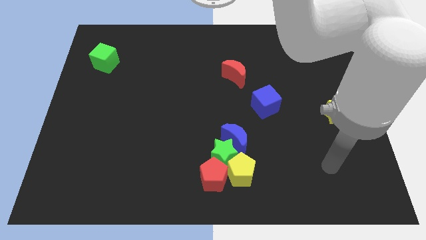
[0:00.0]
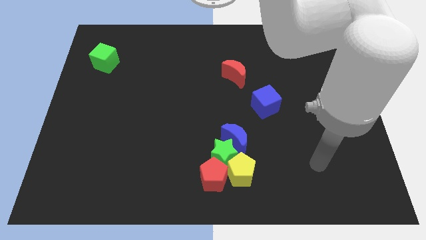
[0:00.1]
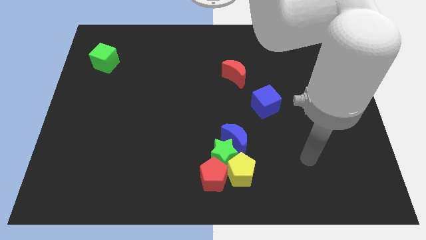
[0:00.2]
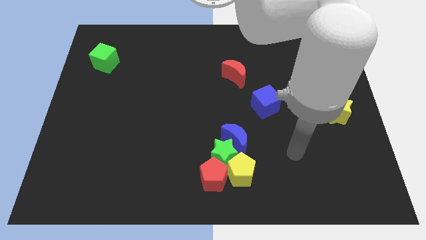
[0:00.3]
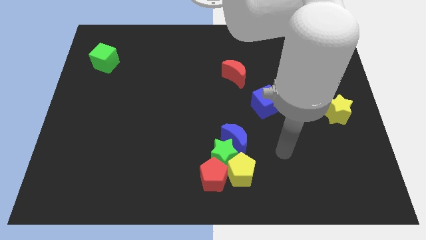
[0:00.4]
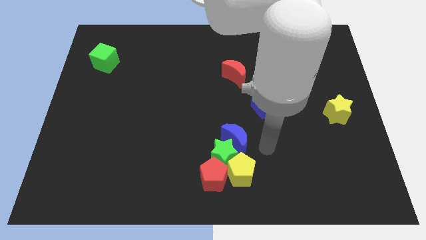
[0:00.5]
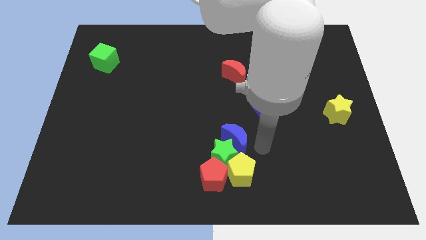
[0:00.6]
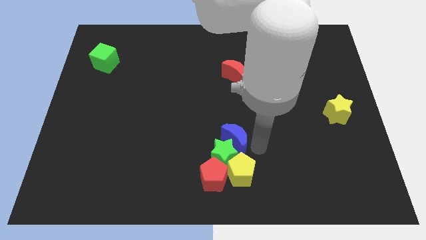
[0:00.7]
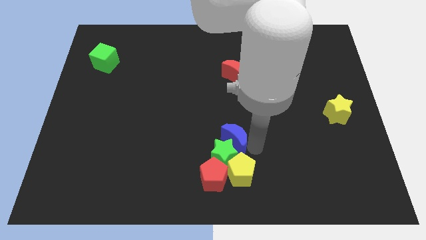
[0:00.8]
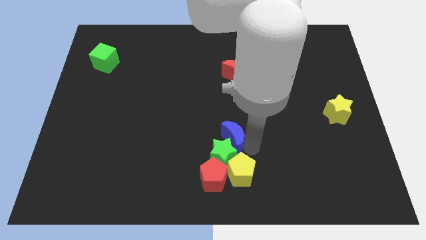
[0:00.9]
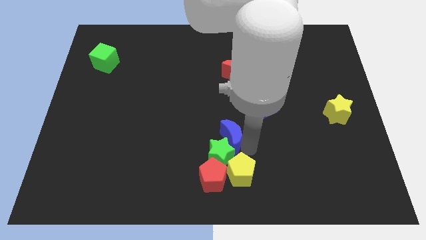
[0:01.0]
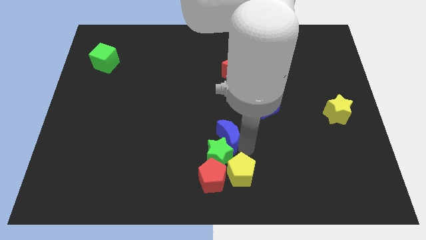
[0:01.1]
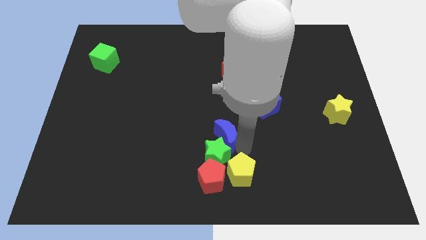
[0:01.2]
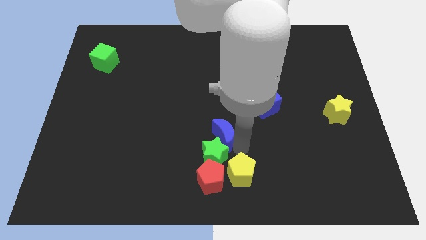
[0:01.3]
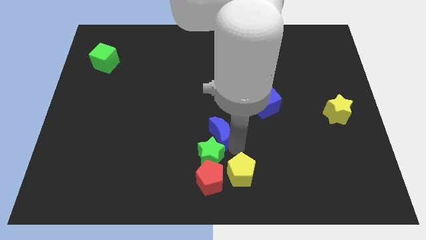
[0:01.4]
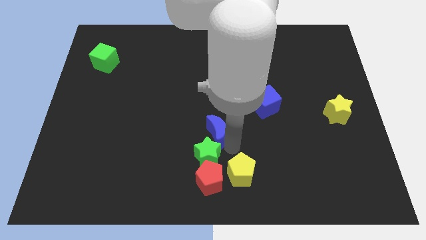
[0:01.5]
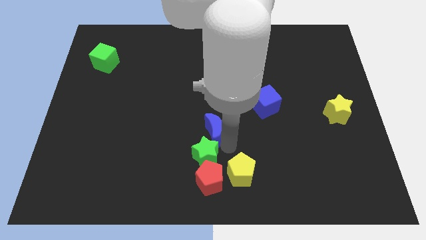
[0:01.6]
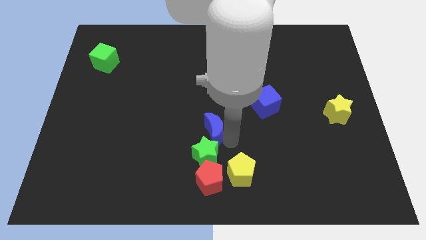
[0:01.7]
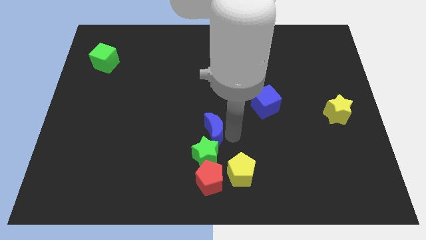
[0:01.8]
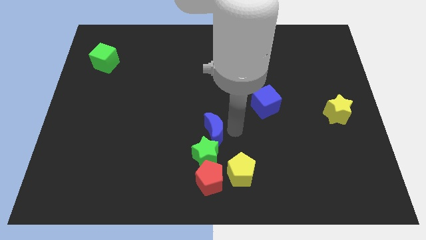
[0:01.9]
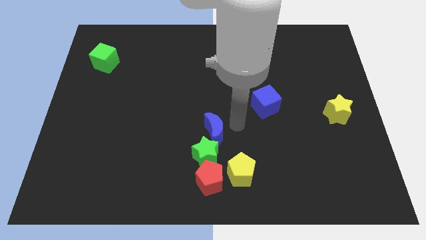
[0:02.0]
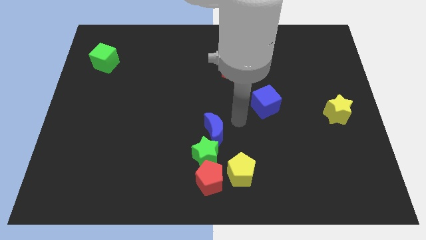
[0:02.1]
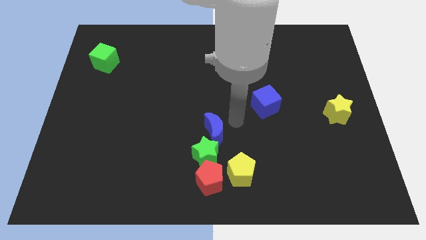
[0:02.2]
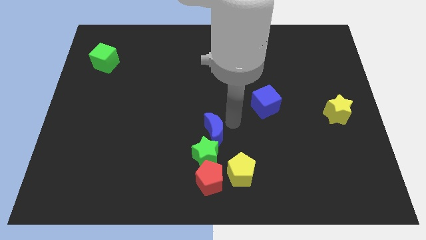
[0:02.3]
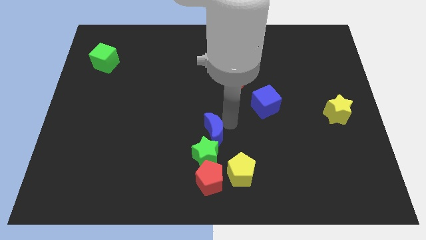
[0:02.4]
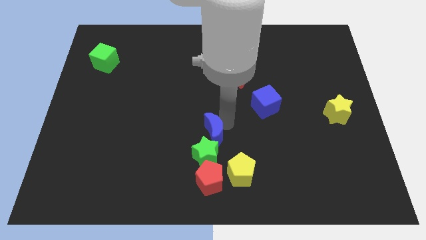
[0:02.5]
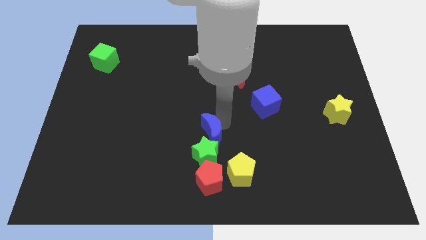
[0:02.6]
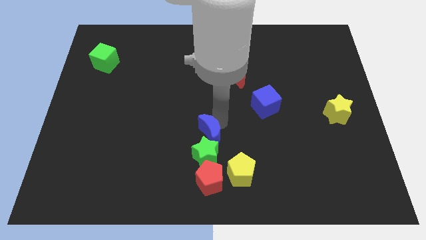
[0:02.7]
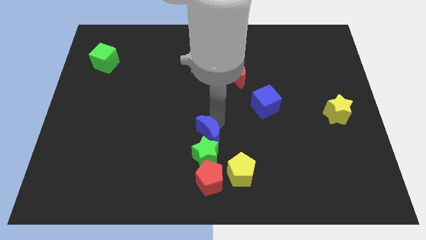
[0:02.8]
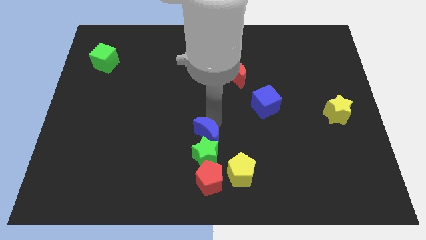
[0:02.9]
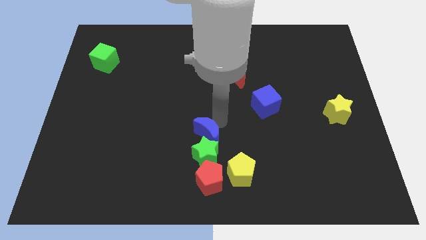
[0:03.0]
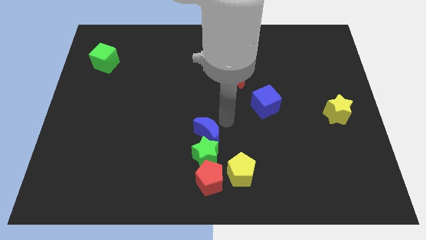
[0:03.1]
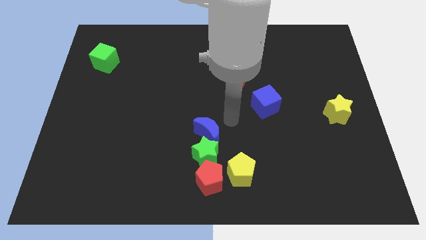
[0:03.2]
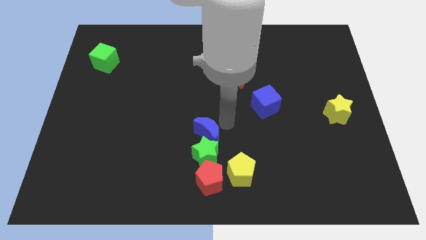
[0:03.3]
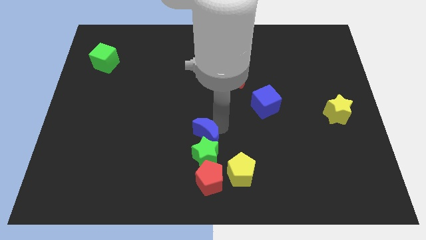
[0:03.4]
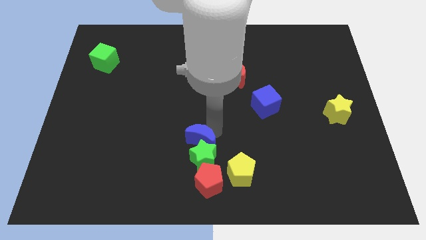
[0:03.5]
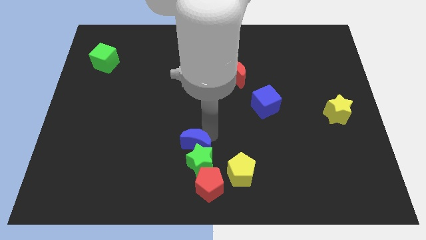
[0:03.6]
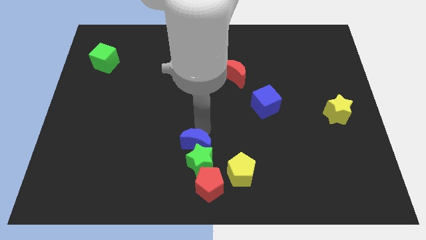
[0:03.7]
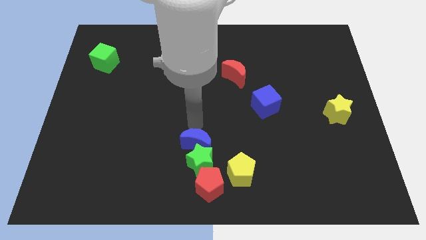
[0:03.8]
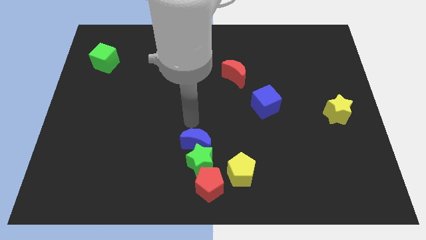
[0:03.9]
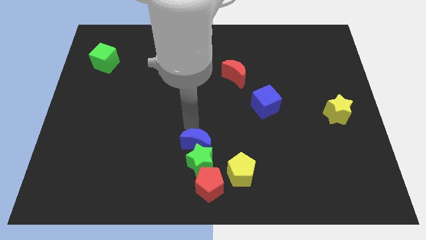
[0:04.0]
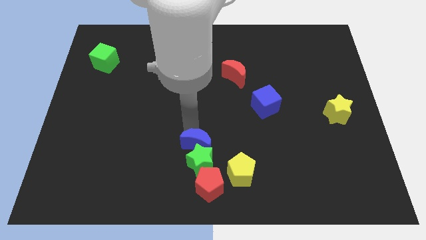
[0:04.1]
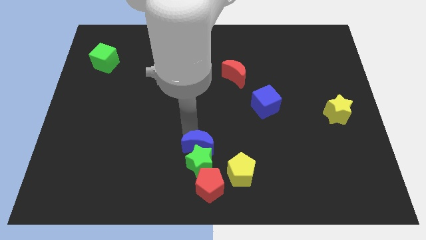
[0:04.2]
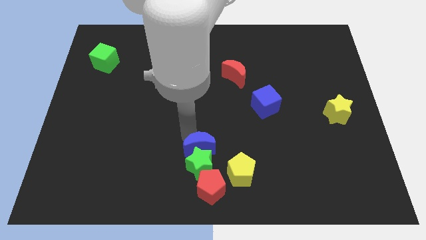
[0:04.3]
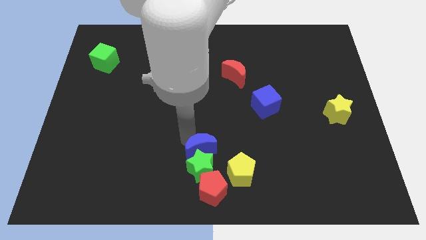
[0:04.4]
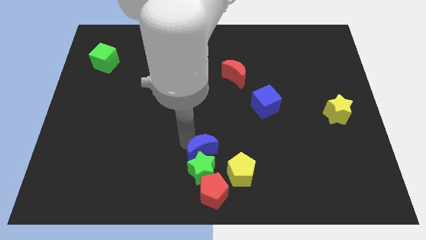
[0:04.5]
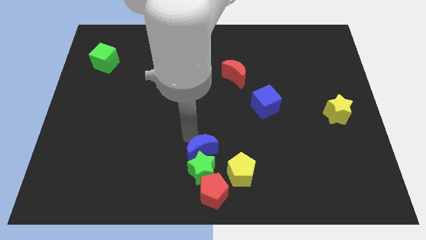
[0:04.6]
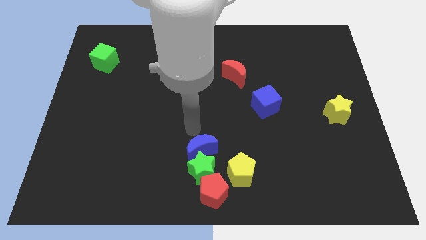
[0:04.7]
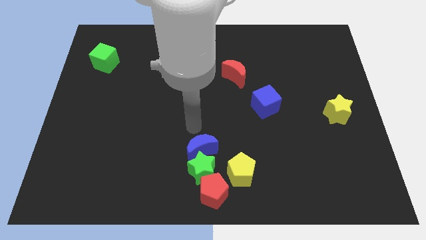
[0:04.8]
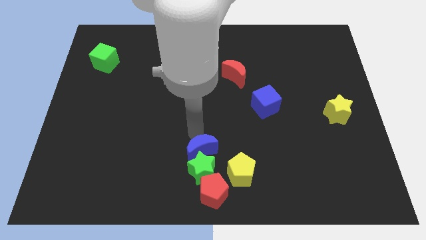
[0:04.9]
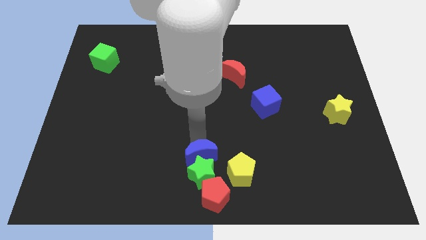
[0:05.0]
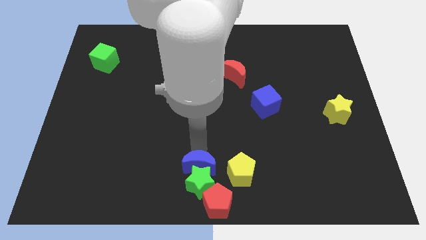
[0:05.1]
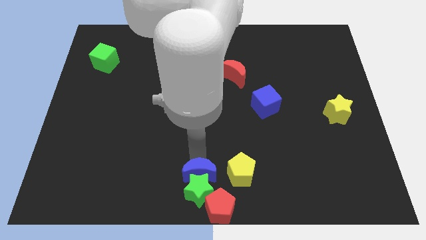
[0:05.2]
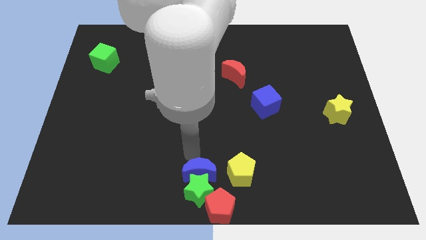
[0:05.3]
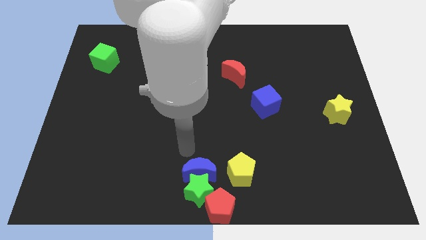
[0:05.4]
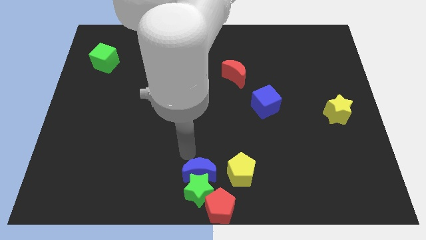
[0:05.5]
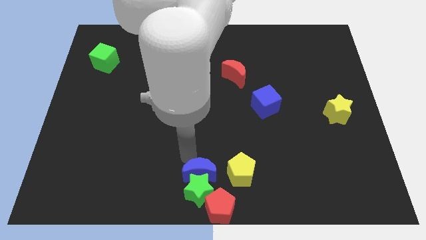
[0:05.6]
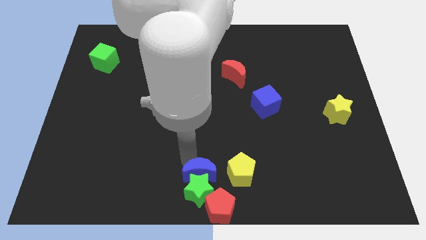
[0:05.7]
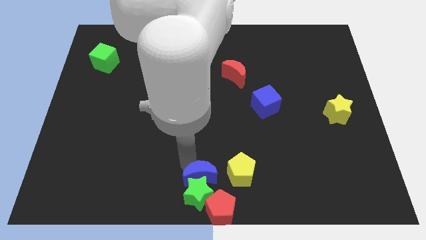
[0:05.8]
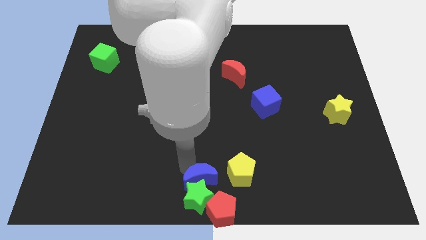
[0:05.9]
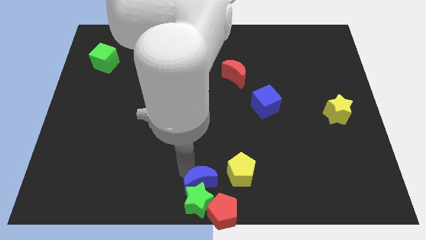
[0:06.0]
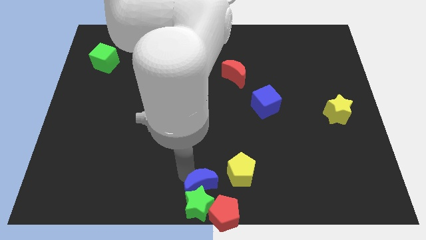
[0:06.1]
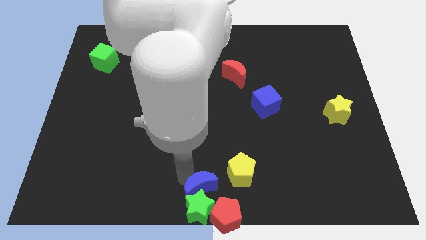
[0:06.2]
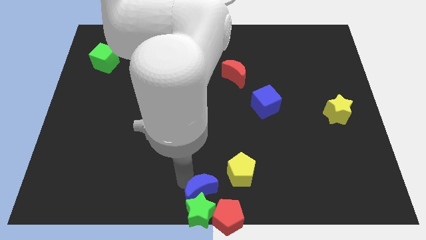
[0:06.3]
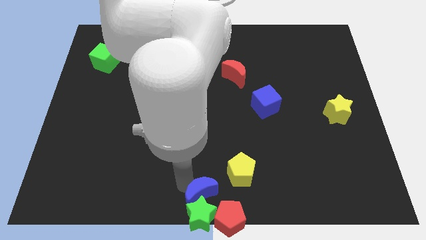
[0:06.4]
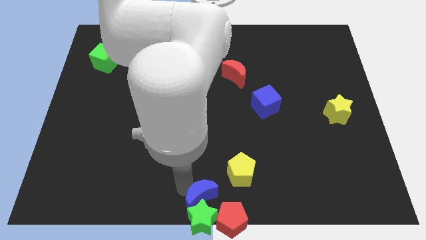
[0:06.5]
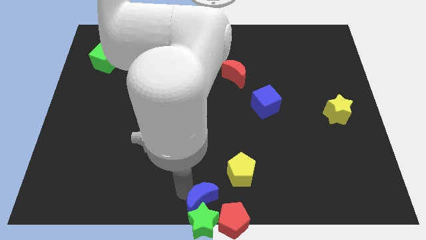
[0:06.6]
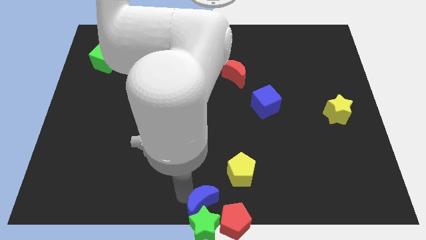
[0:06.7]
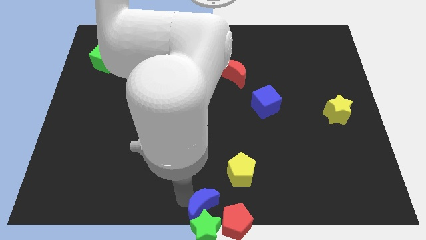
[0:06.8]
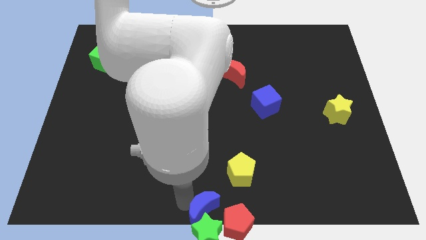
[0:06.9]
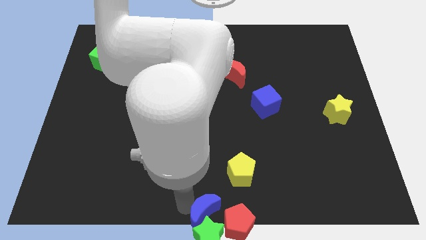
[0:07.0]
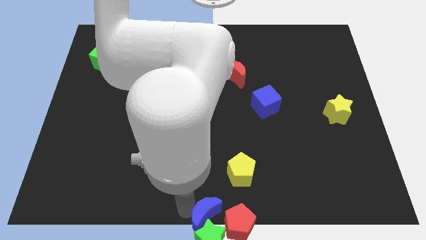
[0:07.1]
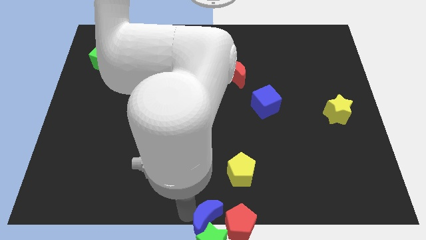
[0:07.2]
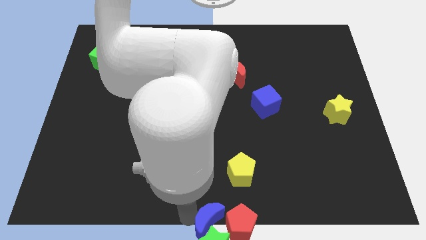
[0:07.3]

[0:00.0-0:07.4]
push the blue moon next to the red pentagon

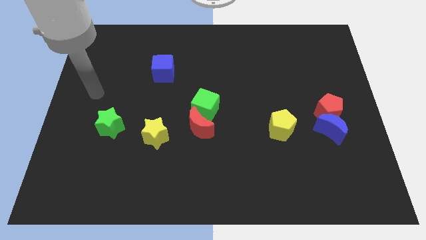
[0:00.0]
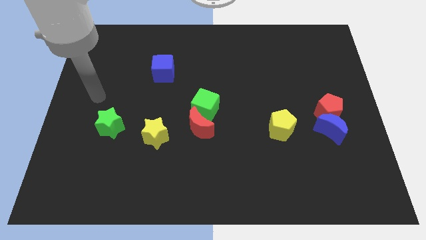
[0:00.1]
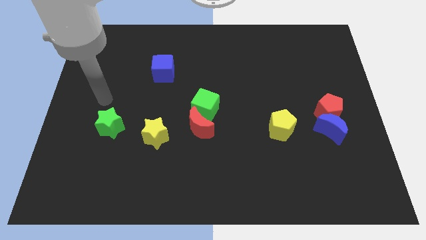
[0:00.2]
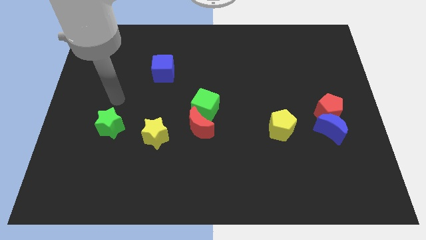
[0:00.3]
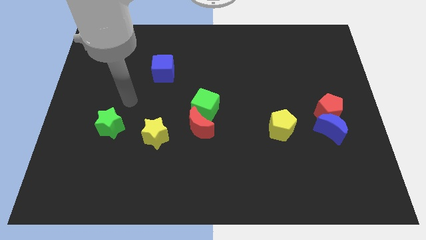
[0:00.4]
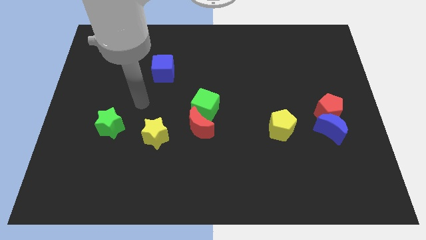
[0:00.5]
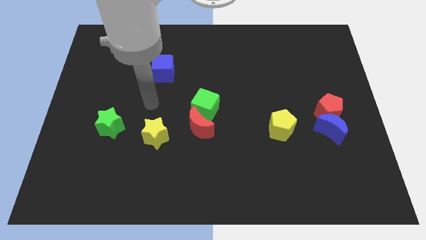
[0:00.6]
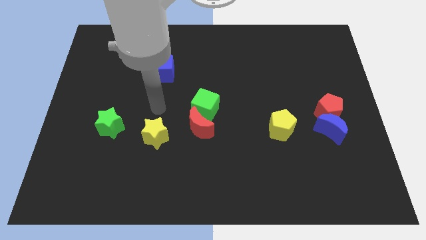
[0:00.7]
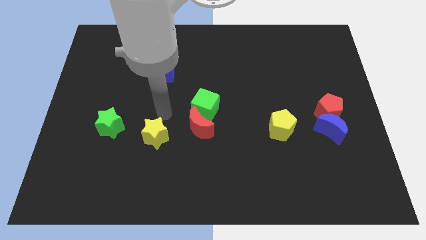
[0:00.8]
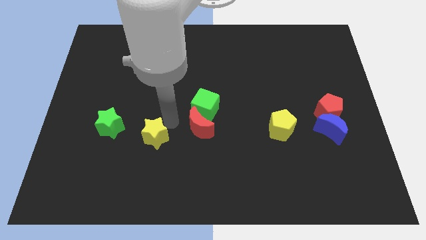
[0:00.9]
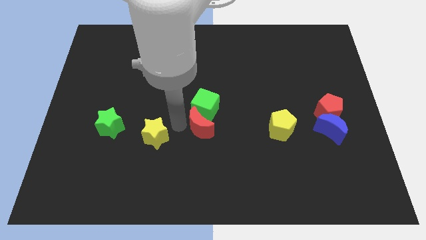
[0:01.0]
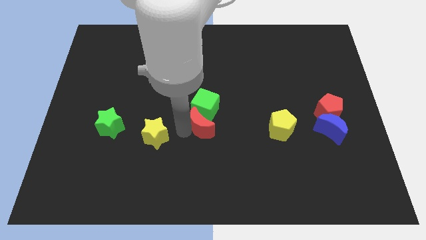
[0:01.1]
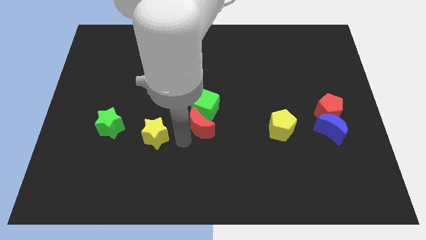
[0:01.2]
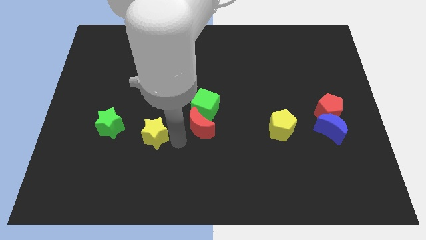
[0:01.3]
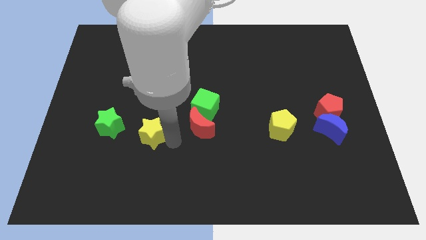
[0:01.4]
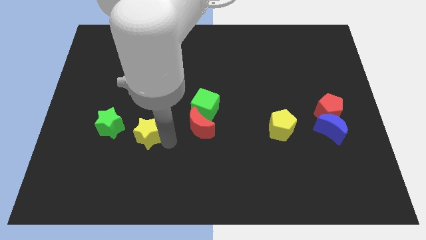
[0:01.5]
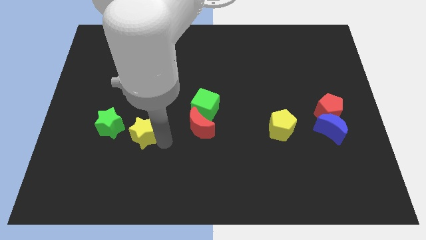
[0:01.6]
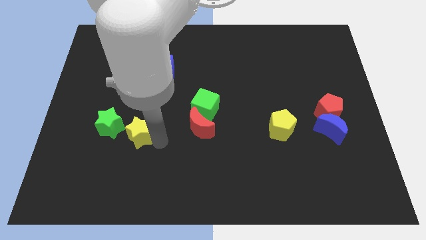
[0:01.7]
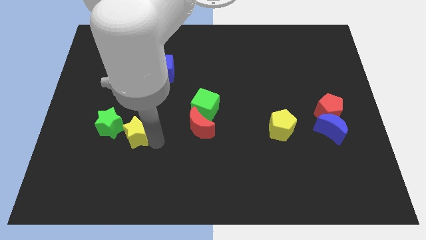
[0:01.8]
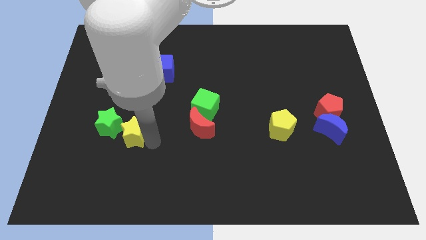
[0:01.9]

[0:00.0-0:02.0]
slide the yellow star towards the green star
